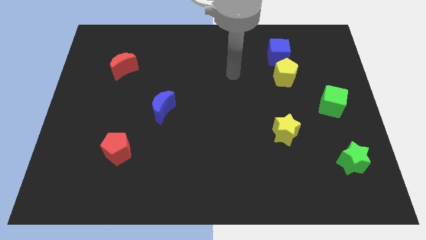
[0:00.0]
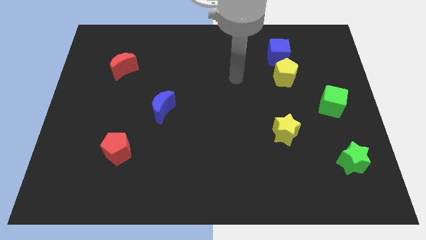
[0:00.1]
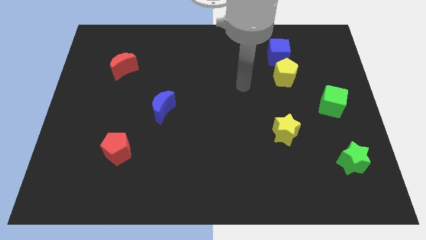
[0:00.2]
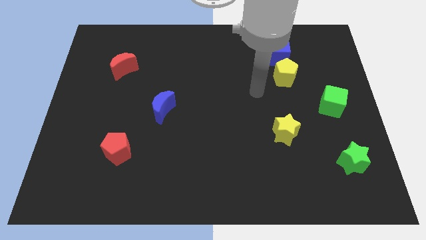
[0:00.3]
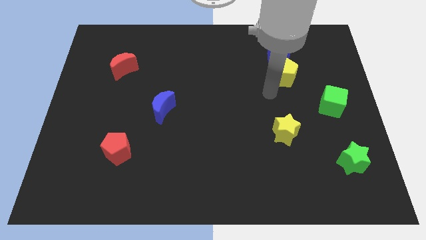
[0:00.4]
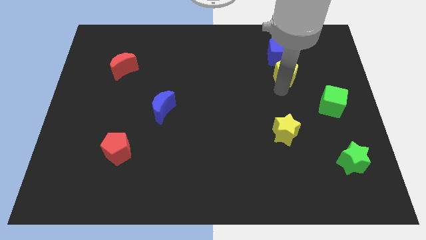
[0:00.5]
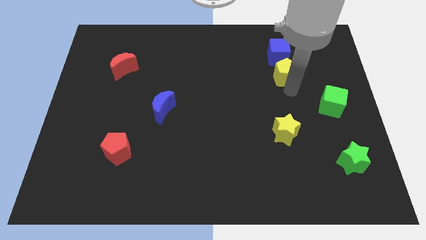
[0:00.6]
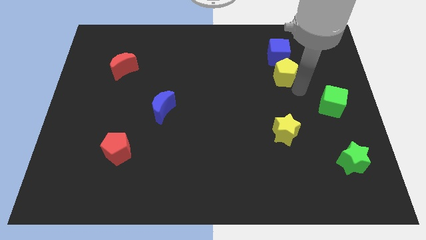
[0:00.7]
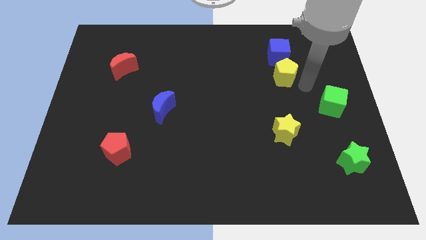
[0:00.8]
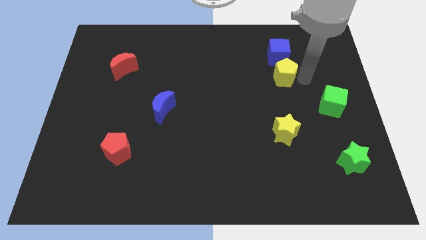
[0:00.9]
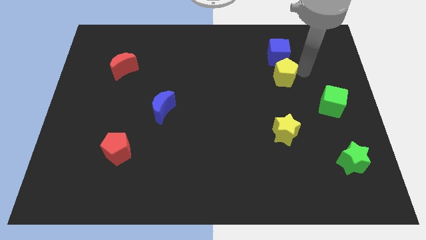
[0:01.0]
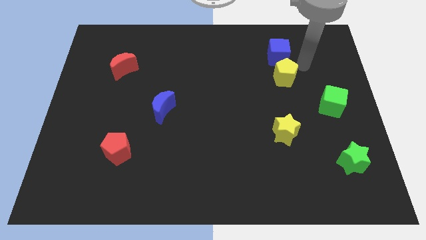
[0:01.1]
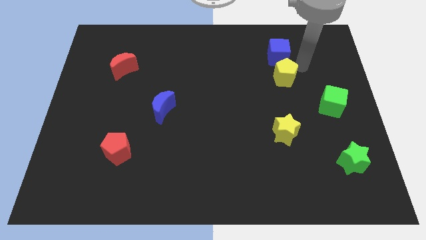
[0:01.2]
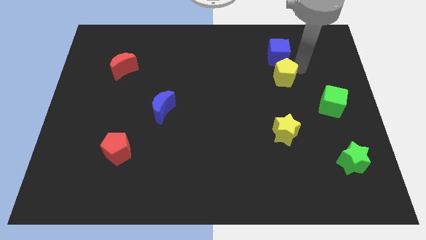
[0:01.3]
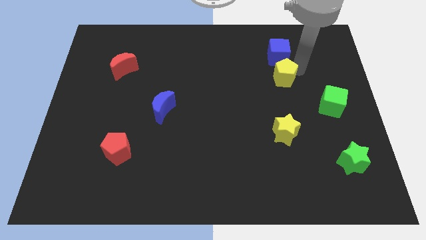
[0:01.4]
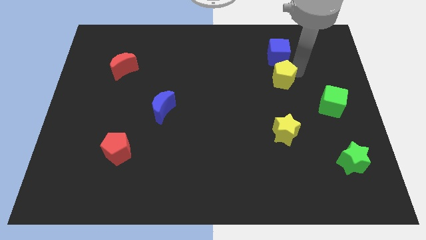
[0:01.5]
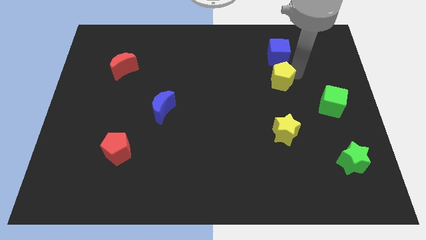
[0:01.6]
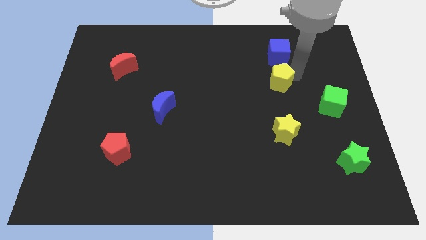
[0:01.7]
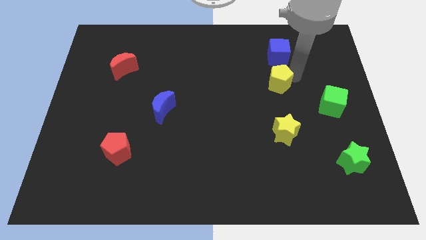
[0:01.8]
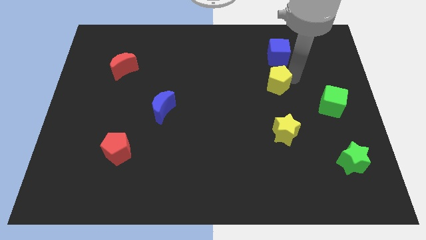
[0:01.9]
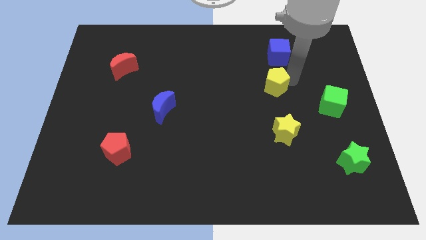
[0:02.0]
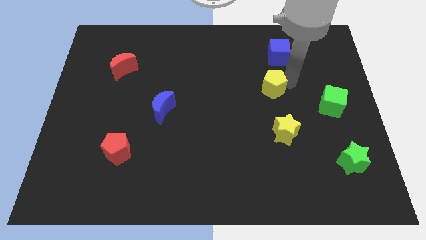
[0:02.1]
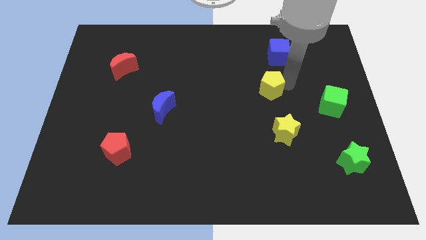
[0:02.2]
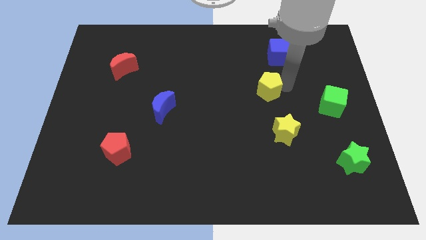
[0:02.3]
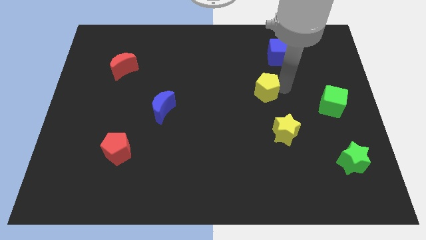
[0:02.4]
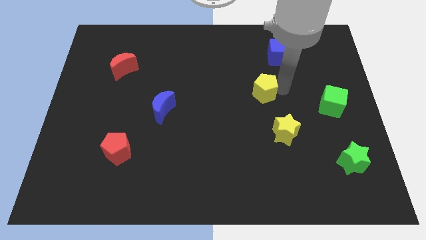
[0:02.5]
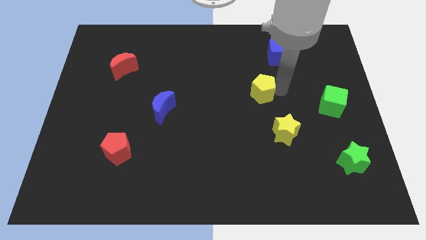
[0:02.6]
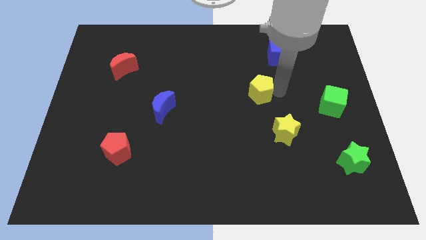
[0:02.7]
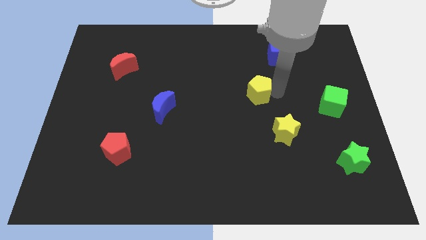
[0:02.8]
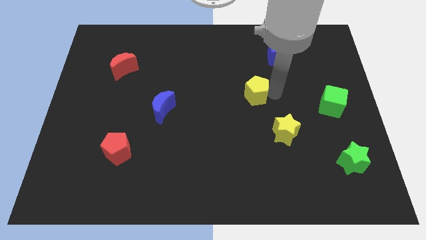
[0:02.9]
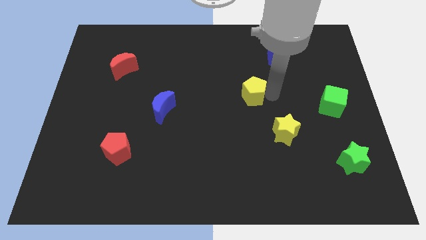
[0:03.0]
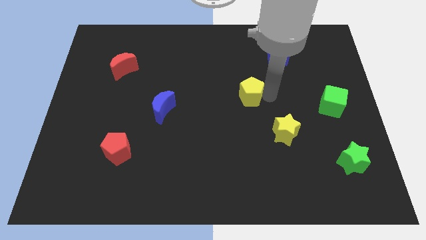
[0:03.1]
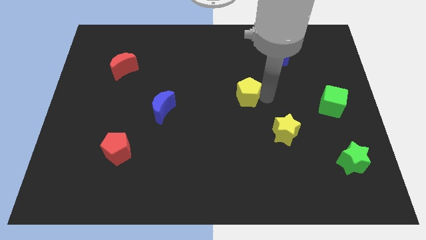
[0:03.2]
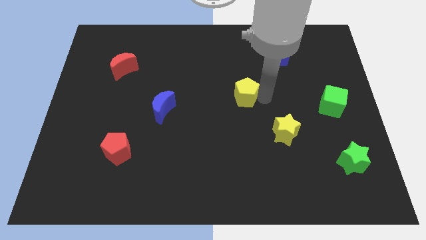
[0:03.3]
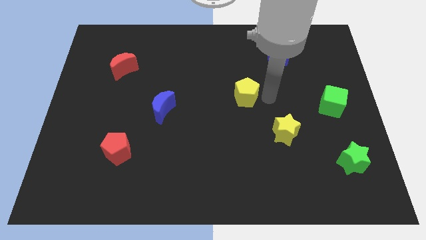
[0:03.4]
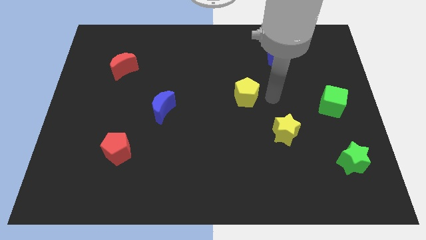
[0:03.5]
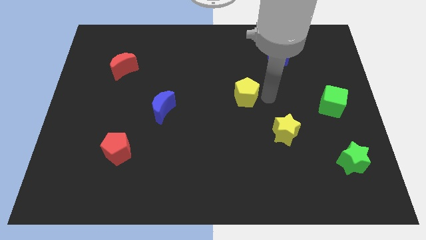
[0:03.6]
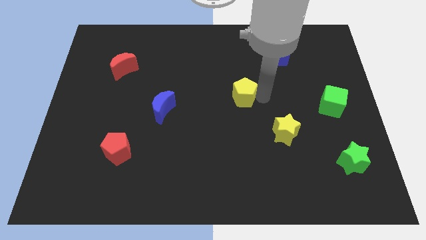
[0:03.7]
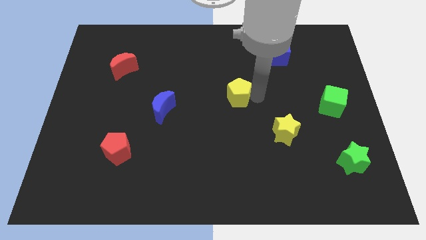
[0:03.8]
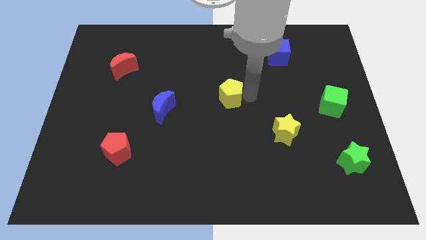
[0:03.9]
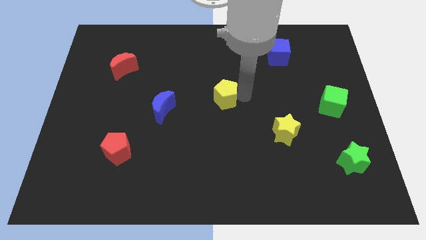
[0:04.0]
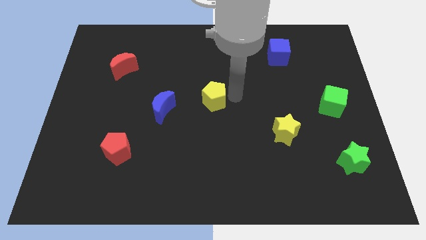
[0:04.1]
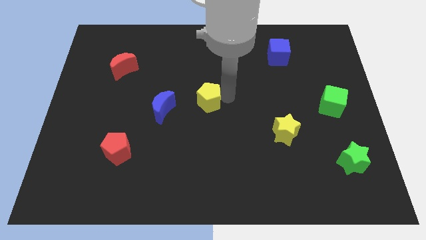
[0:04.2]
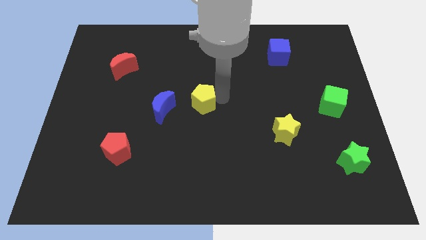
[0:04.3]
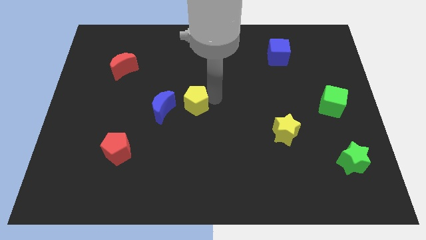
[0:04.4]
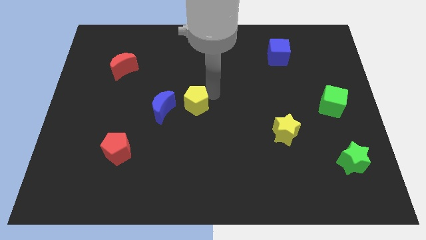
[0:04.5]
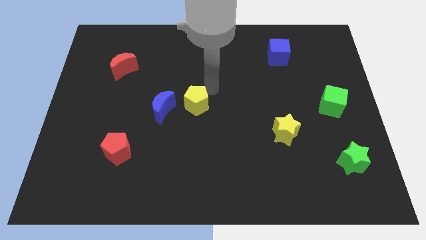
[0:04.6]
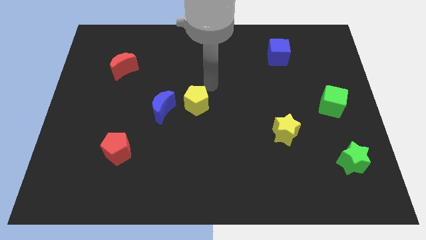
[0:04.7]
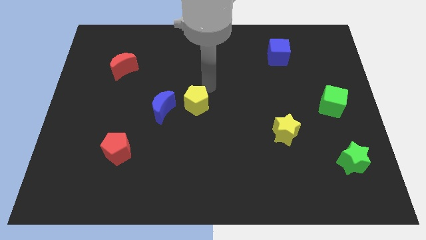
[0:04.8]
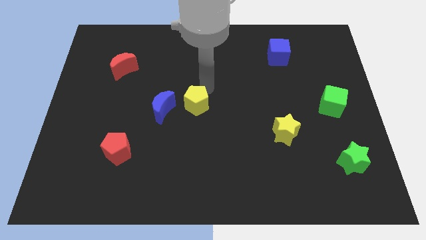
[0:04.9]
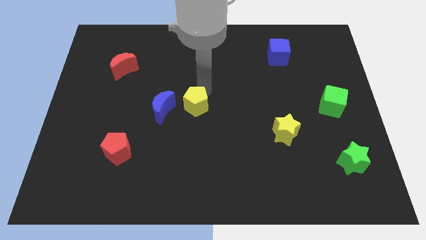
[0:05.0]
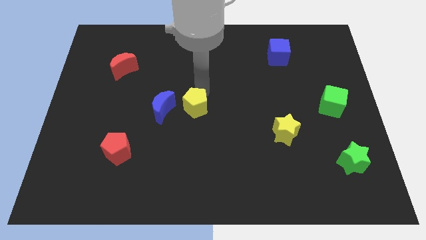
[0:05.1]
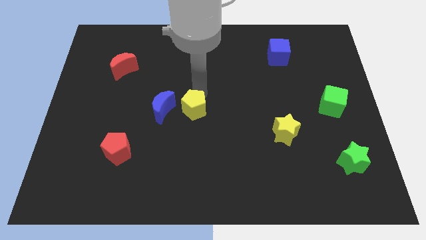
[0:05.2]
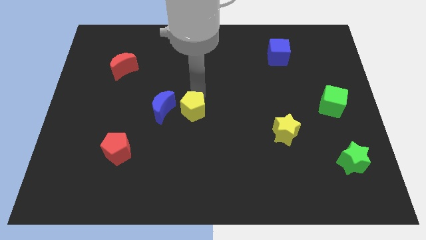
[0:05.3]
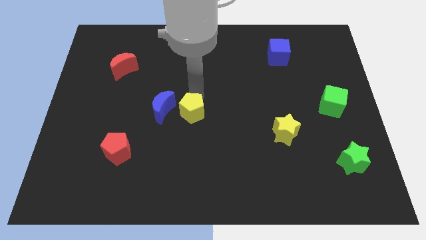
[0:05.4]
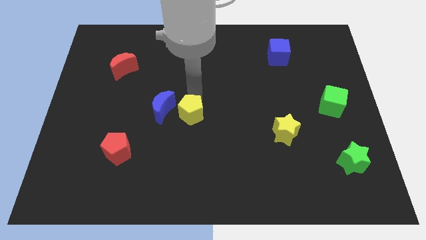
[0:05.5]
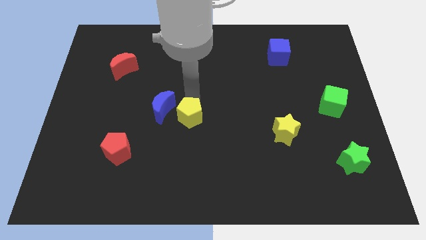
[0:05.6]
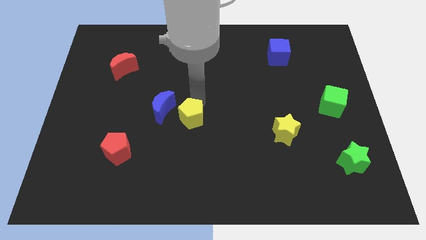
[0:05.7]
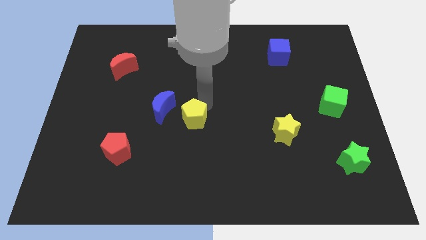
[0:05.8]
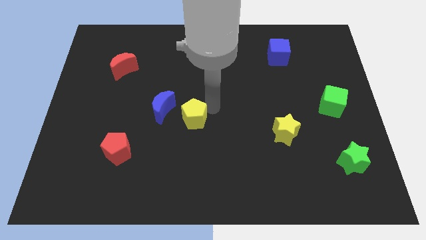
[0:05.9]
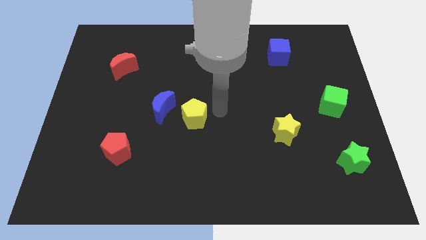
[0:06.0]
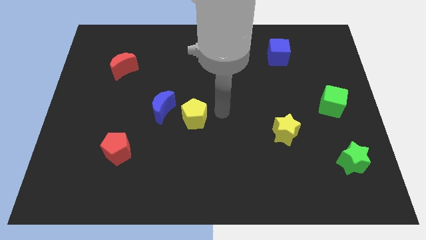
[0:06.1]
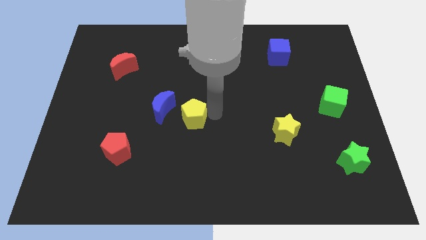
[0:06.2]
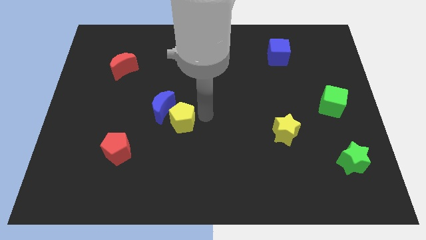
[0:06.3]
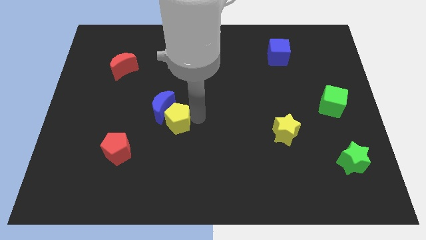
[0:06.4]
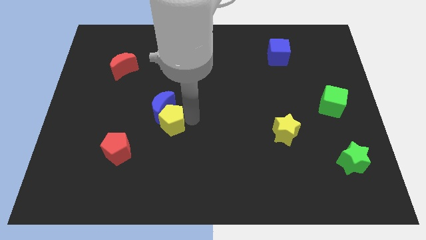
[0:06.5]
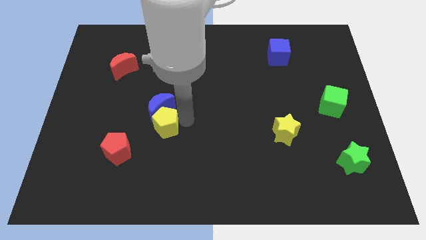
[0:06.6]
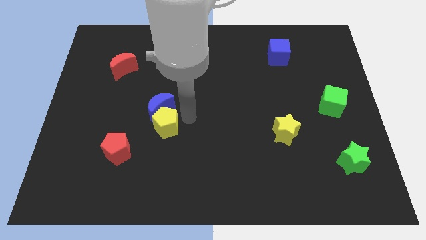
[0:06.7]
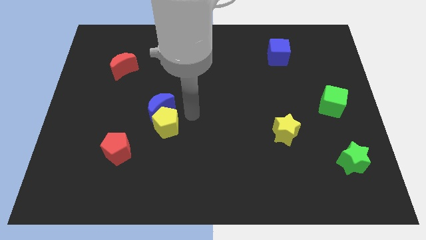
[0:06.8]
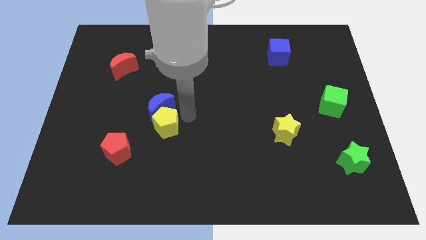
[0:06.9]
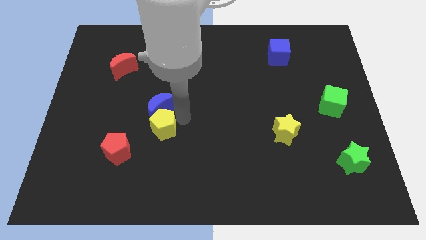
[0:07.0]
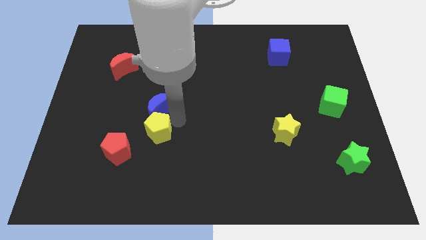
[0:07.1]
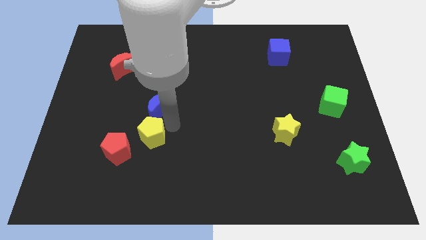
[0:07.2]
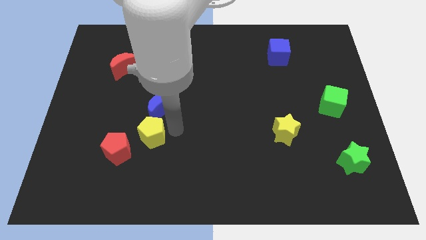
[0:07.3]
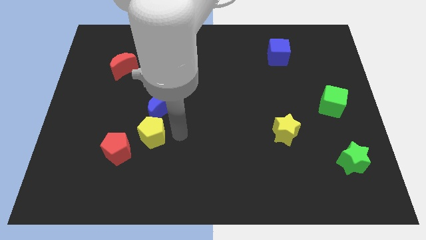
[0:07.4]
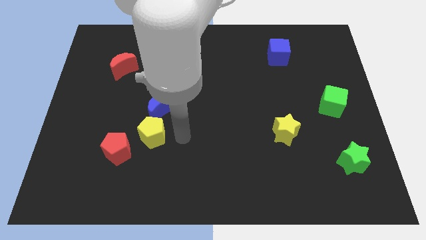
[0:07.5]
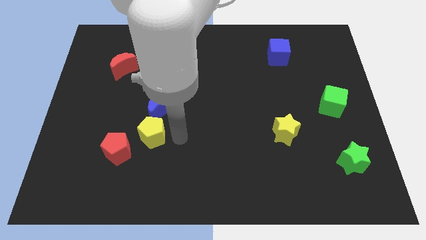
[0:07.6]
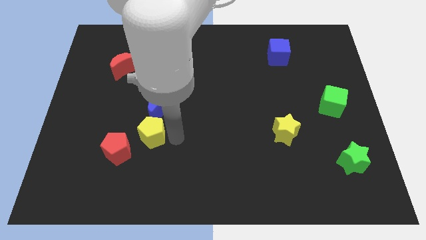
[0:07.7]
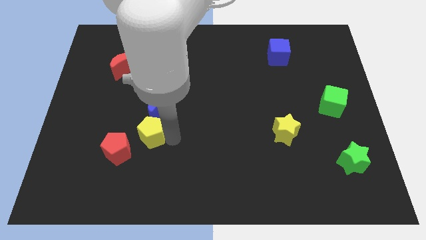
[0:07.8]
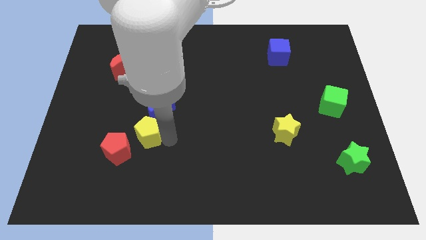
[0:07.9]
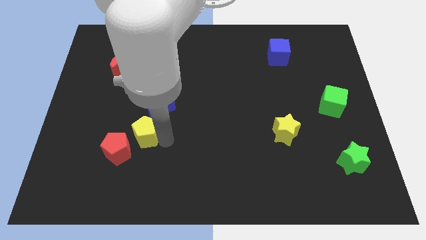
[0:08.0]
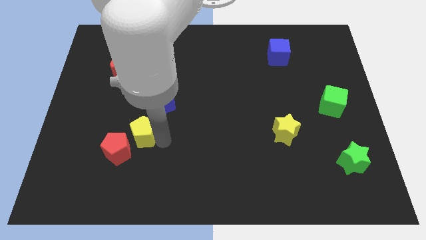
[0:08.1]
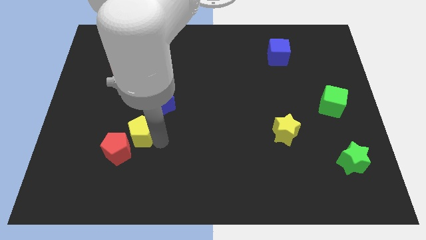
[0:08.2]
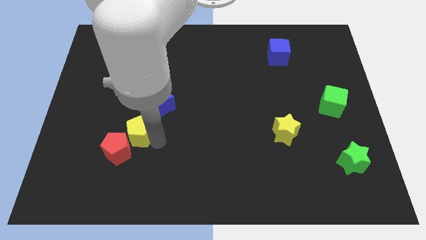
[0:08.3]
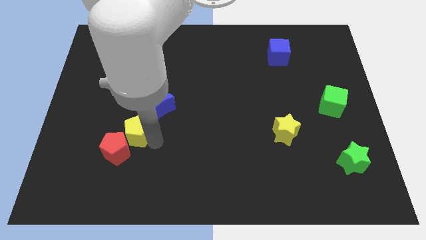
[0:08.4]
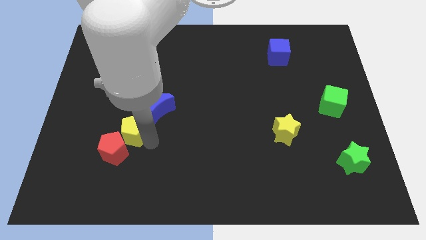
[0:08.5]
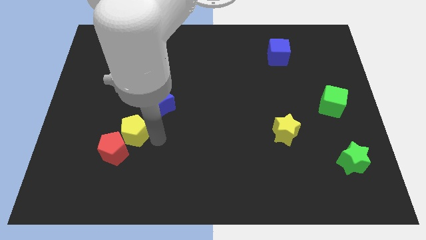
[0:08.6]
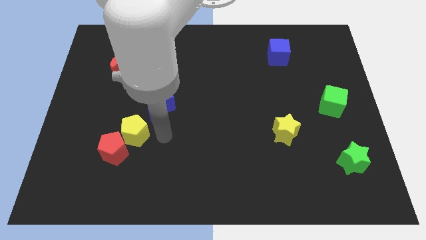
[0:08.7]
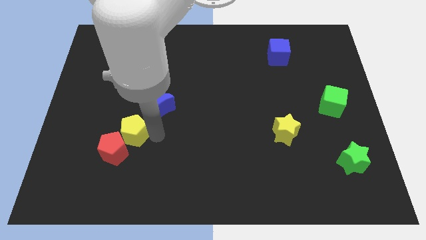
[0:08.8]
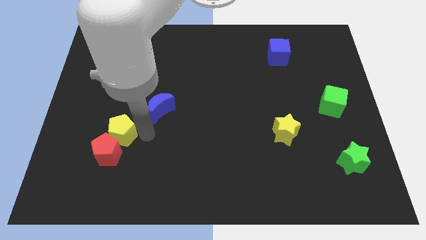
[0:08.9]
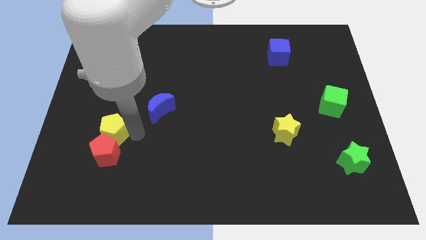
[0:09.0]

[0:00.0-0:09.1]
slide the yellow pentagon to the top left of the red pentagon
